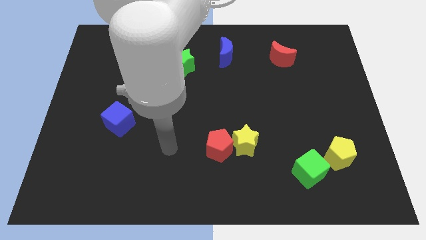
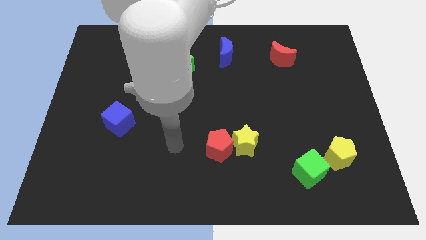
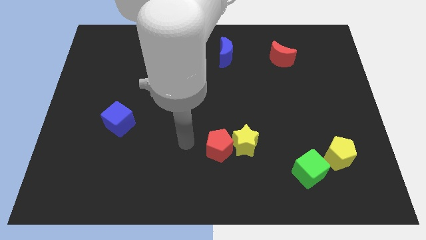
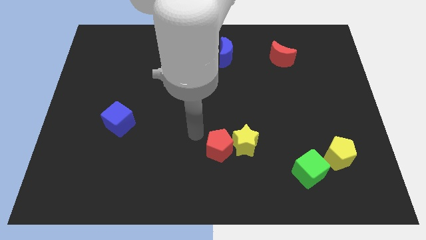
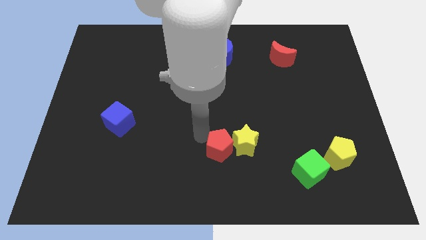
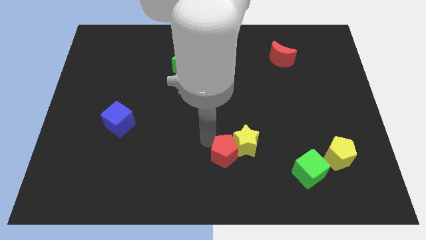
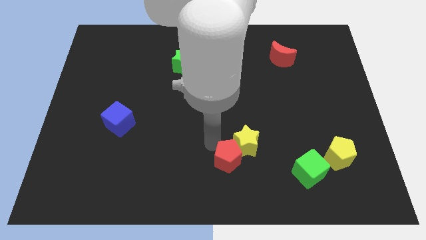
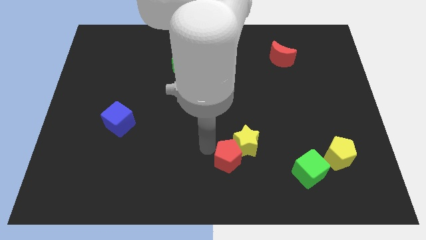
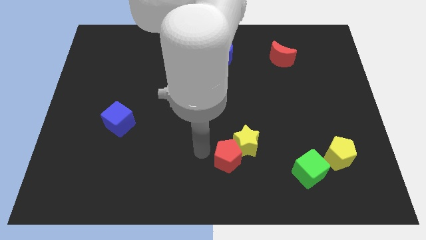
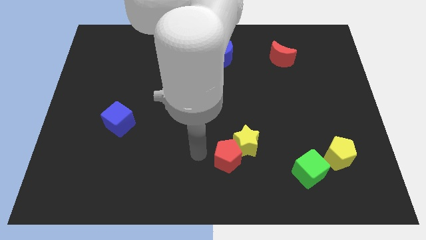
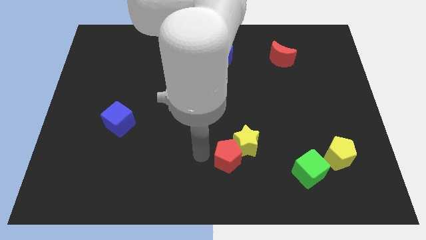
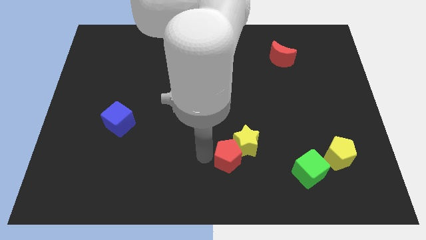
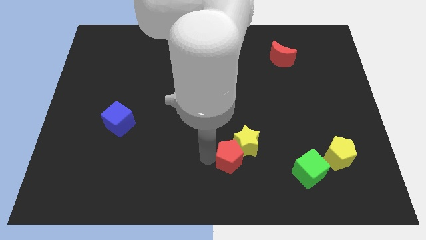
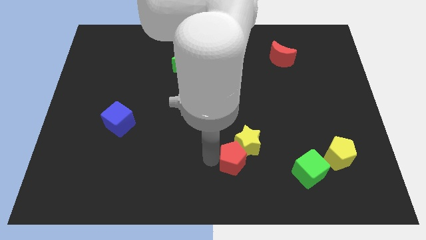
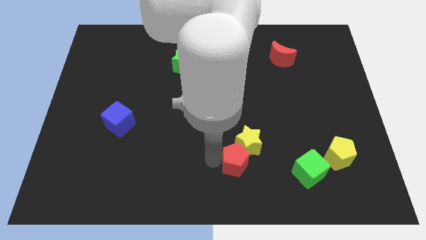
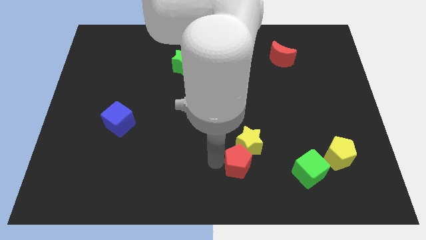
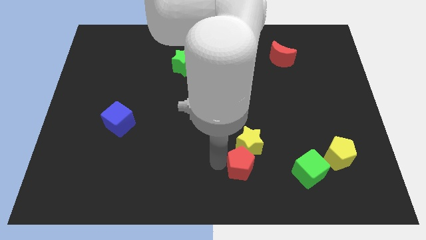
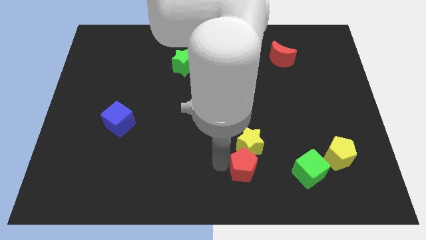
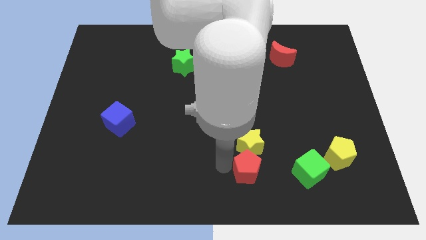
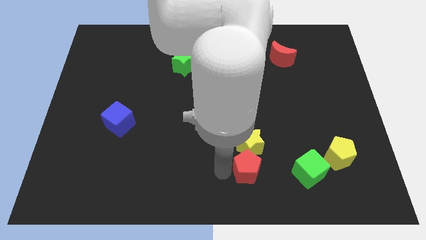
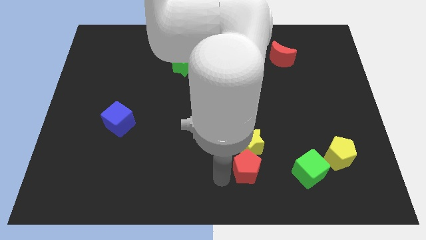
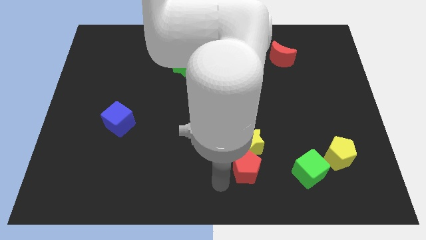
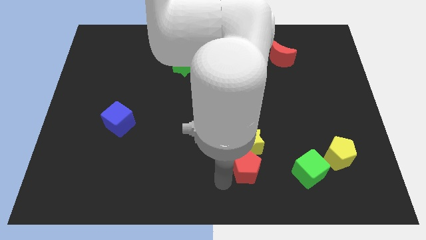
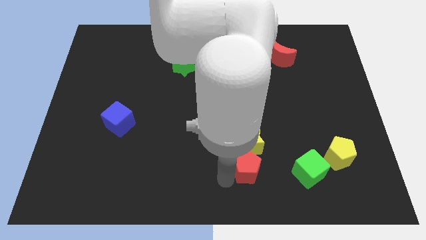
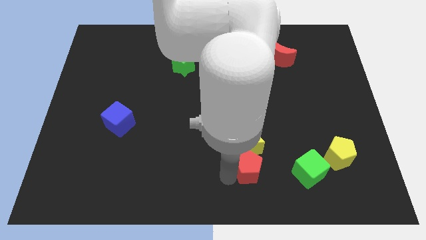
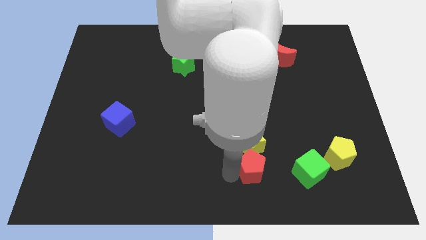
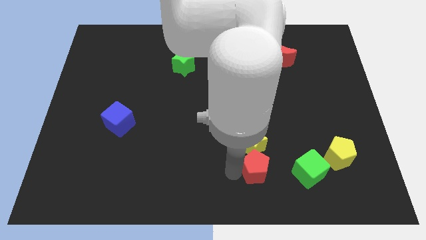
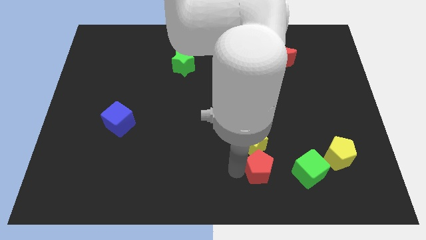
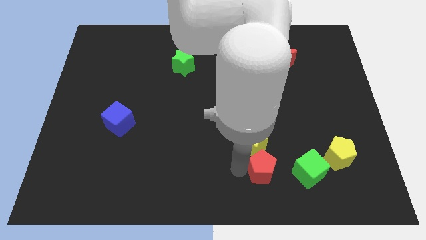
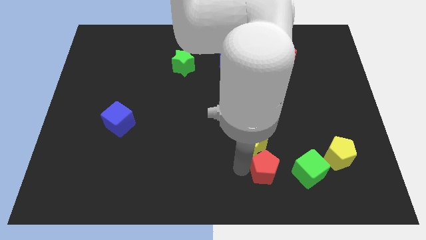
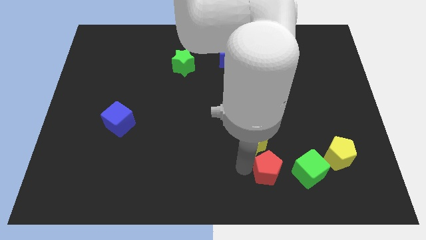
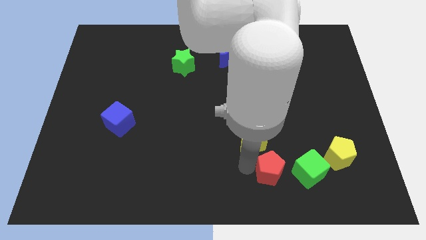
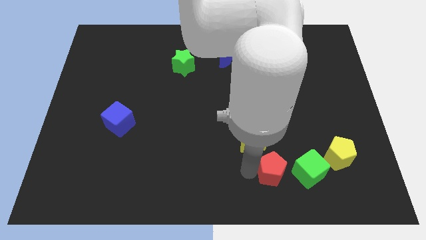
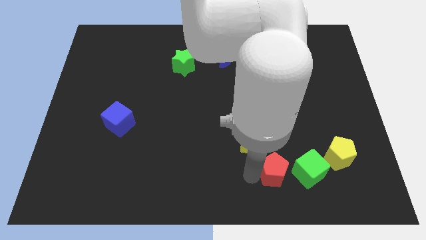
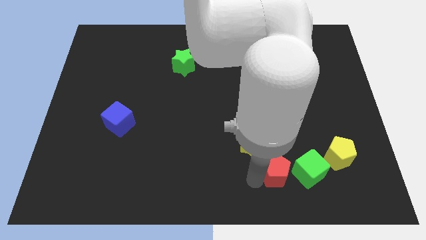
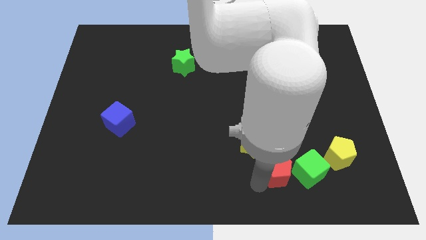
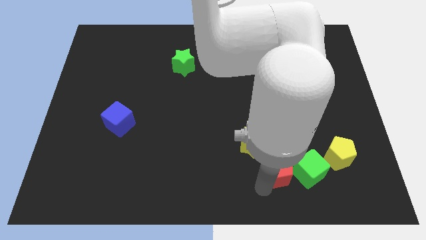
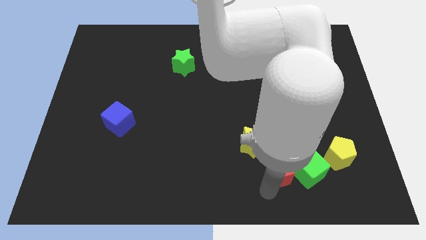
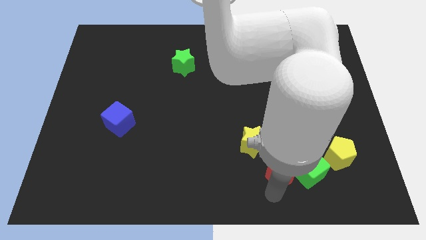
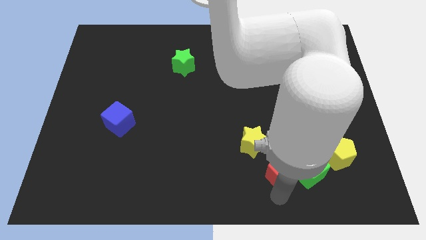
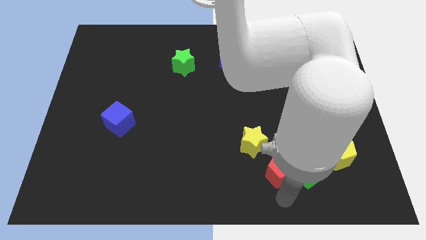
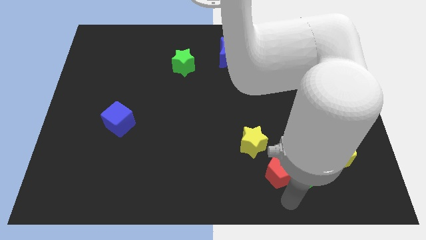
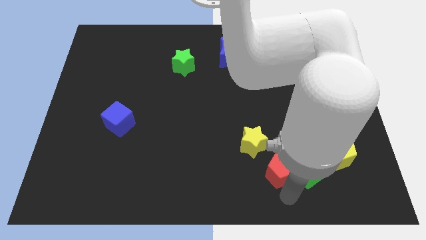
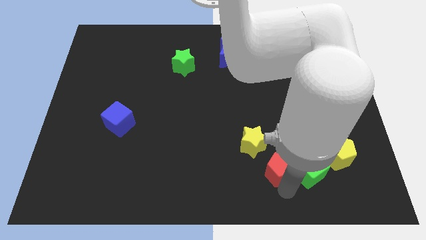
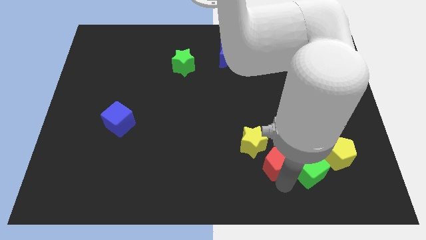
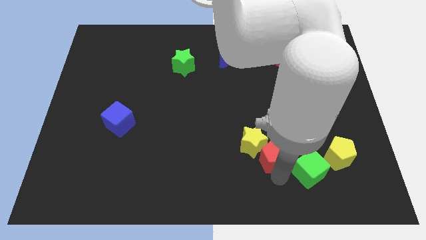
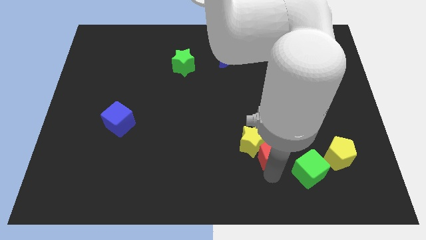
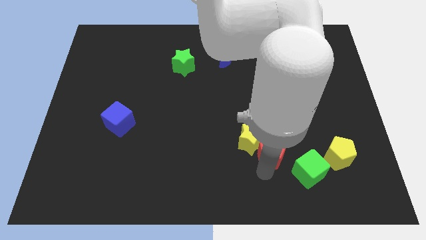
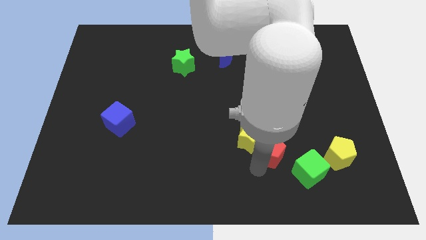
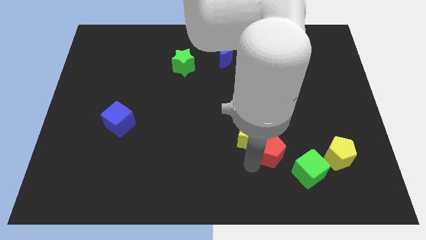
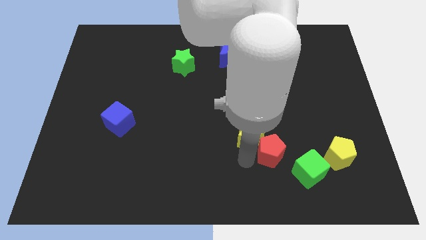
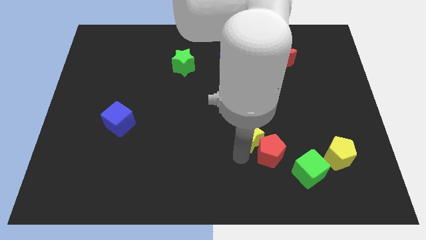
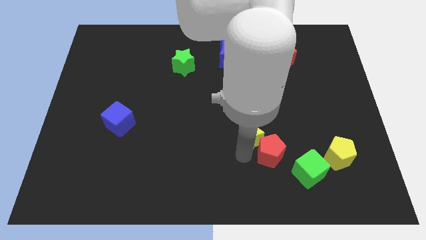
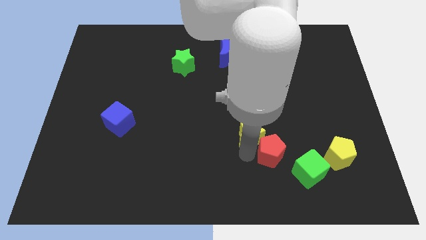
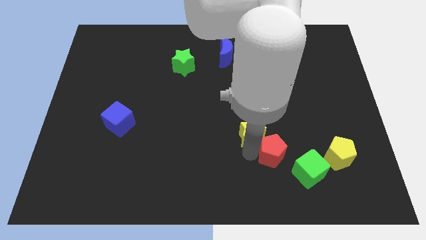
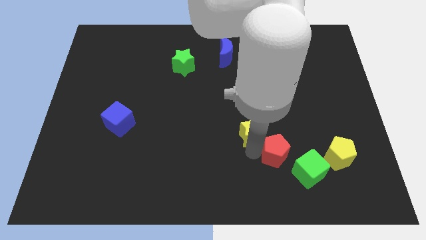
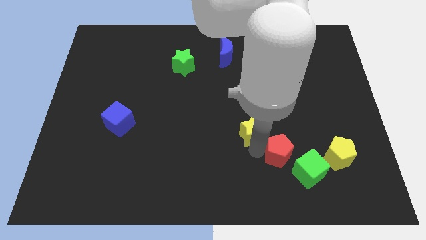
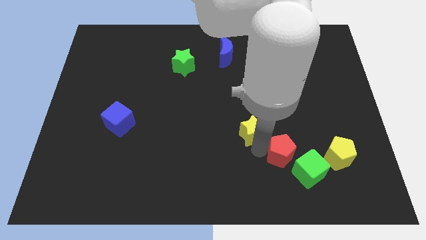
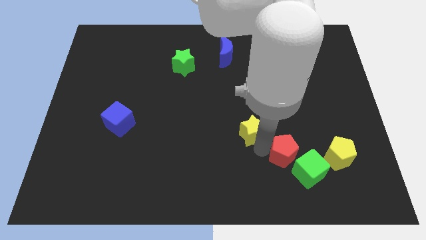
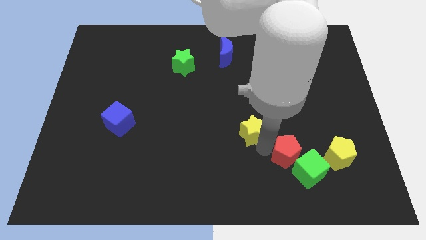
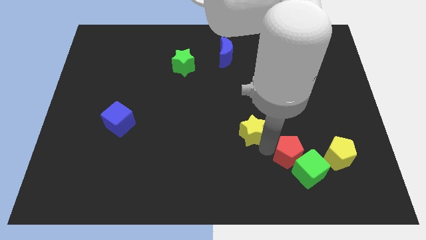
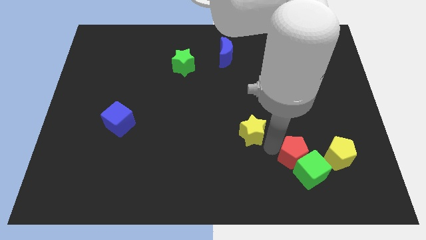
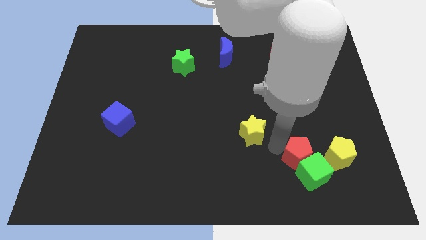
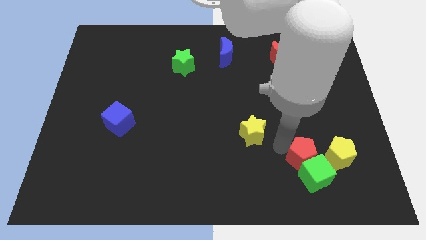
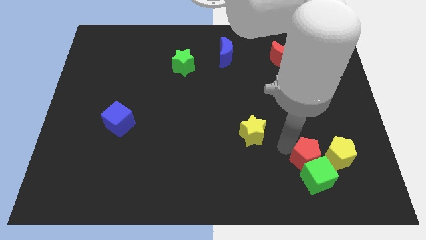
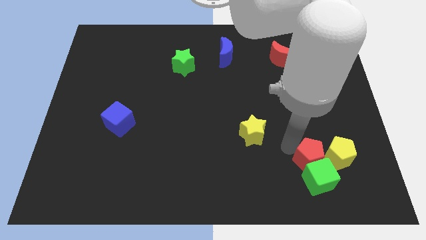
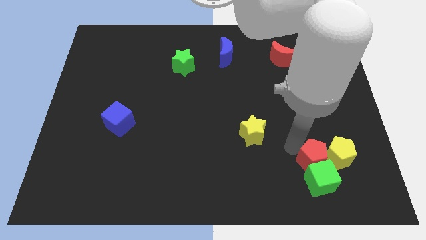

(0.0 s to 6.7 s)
move the red pentagon next to the yellow pentagon

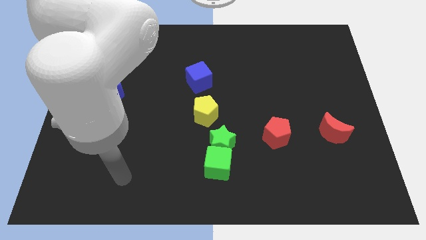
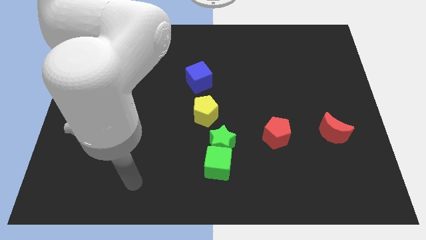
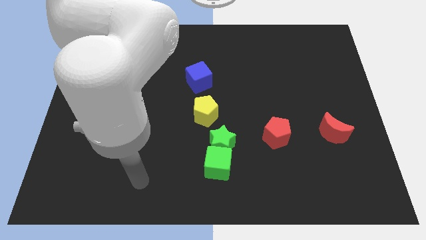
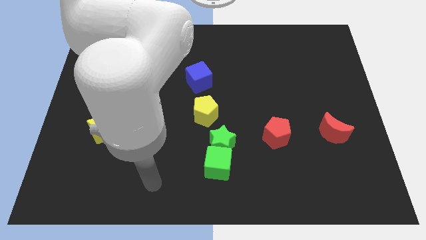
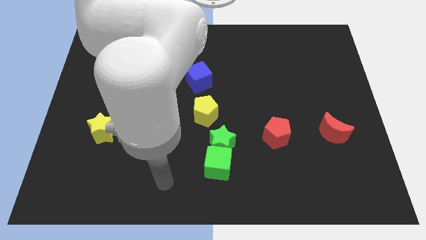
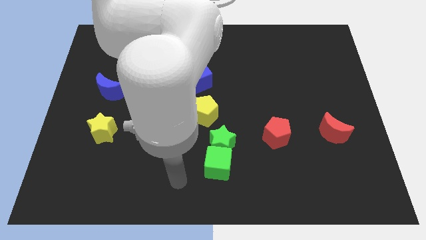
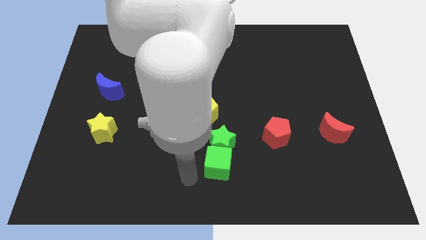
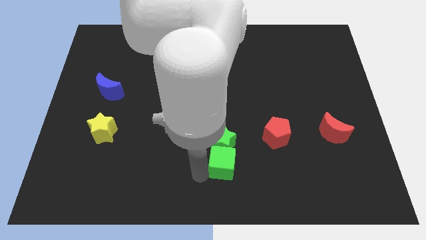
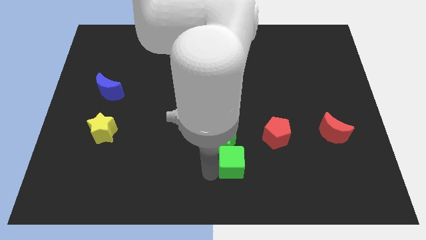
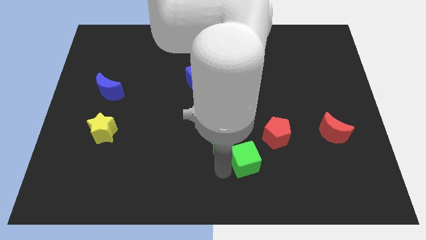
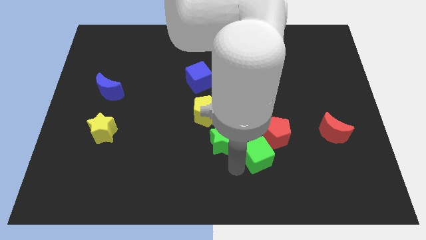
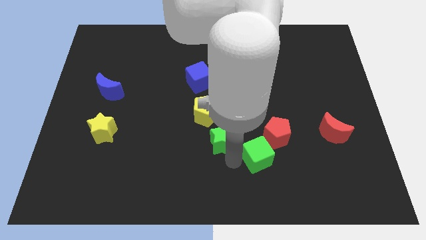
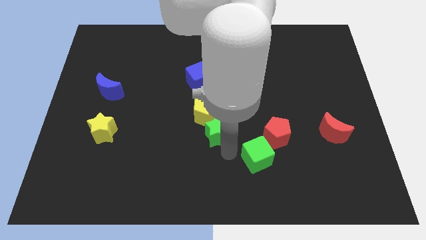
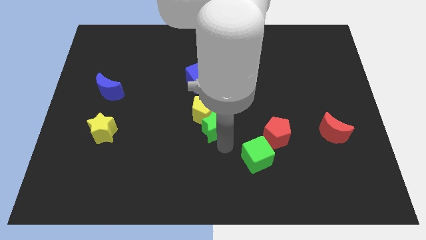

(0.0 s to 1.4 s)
slide the green star towards the yellow pentagon
